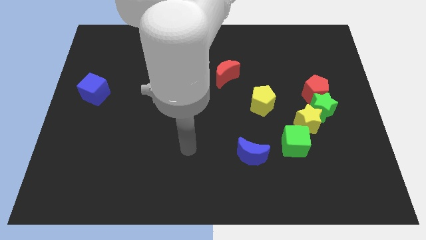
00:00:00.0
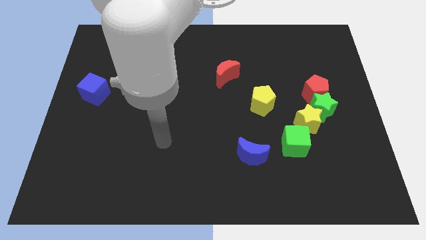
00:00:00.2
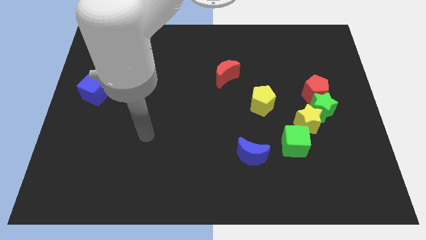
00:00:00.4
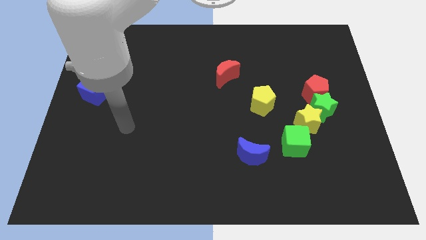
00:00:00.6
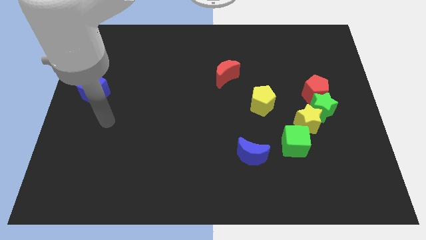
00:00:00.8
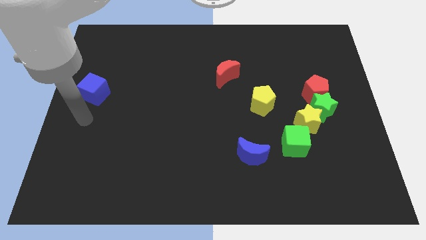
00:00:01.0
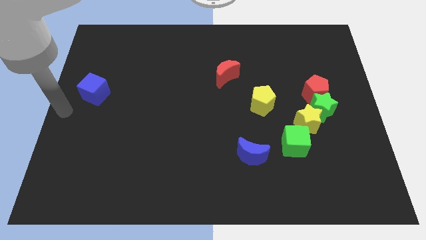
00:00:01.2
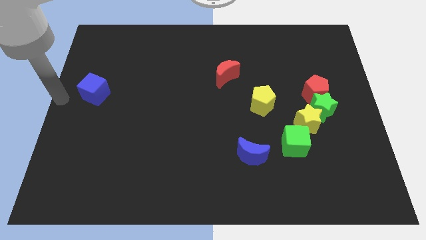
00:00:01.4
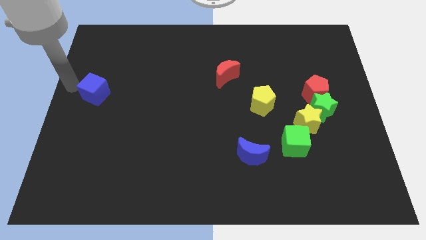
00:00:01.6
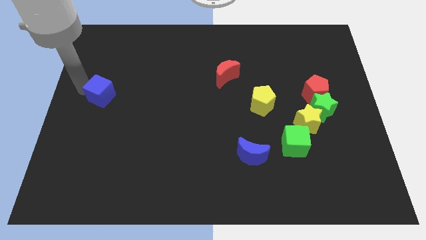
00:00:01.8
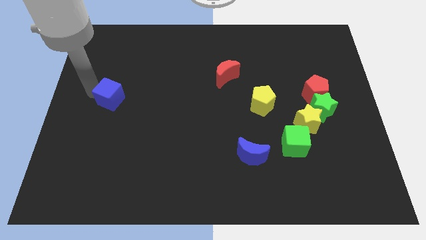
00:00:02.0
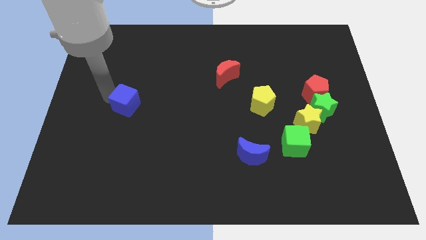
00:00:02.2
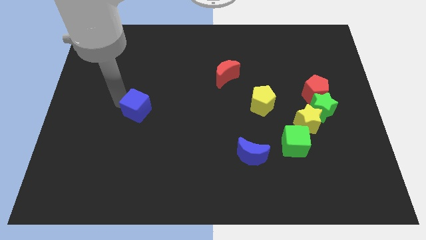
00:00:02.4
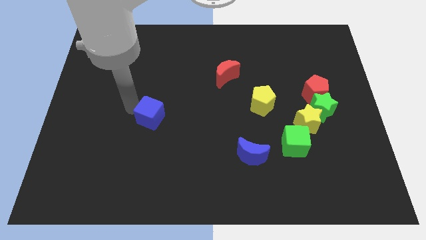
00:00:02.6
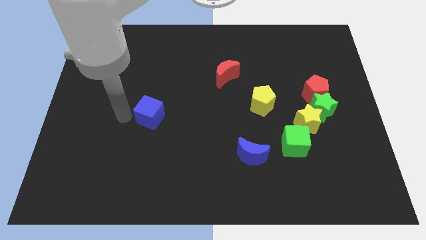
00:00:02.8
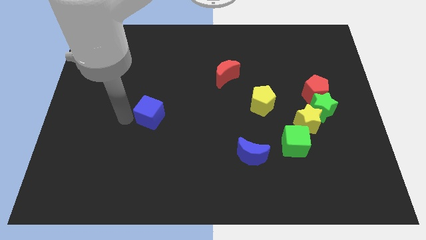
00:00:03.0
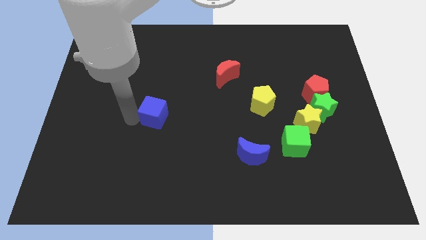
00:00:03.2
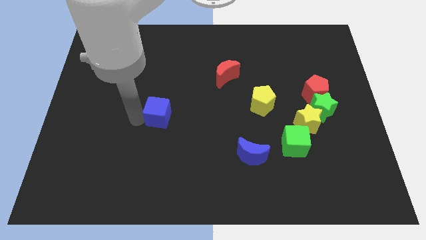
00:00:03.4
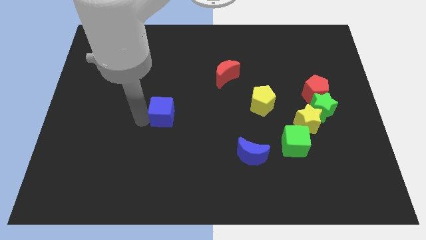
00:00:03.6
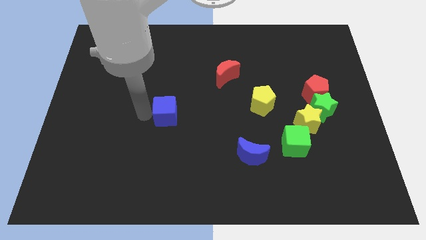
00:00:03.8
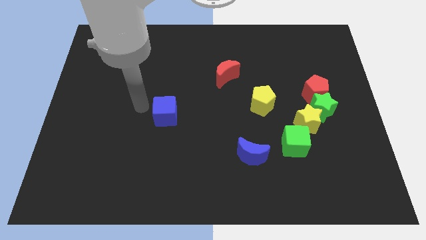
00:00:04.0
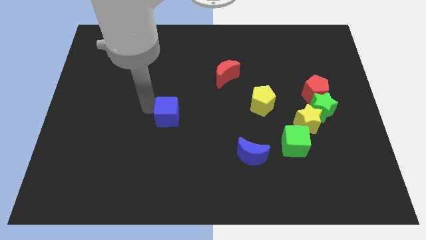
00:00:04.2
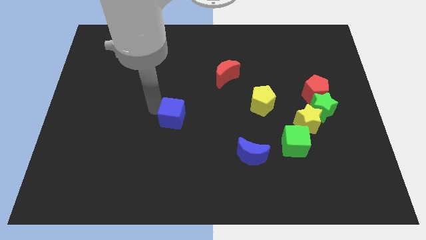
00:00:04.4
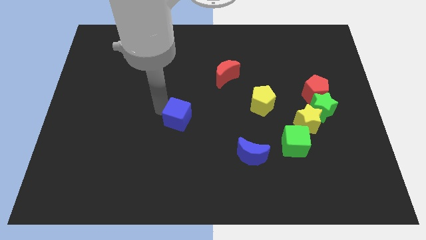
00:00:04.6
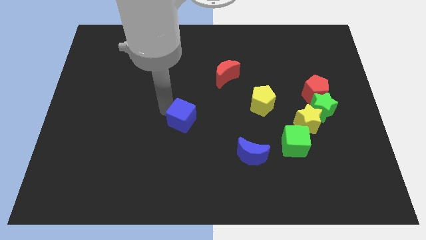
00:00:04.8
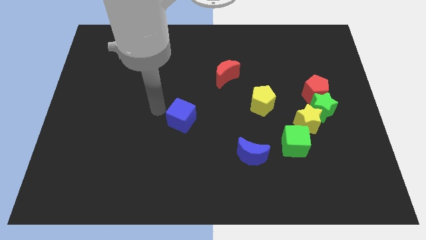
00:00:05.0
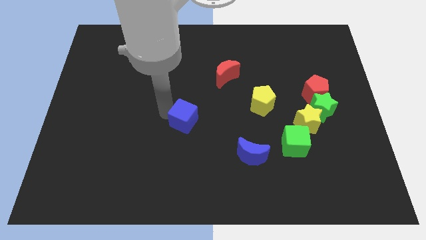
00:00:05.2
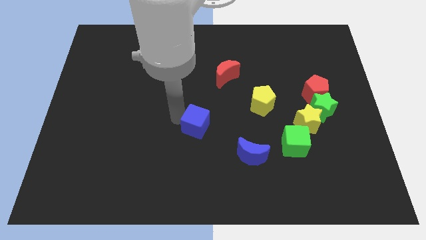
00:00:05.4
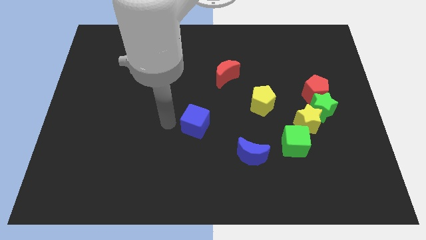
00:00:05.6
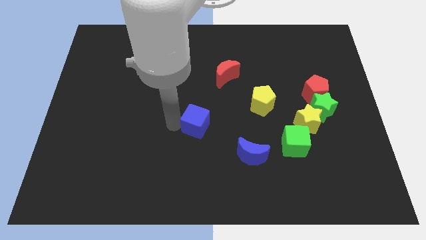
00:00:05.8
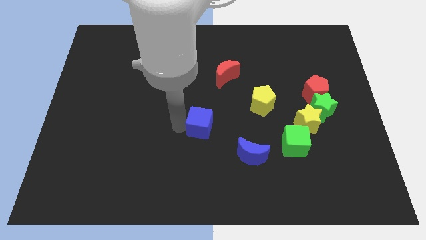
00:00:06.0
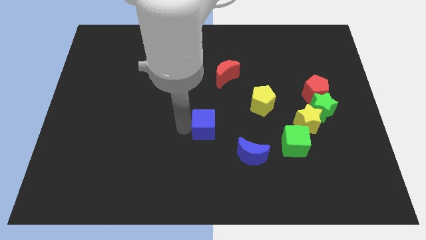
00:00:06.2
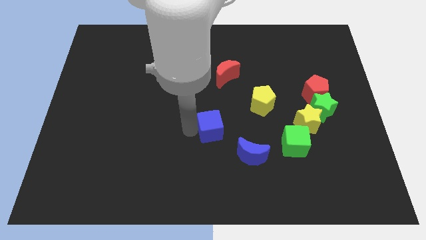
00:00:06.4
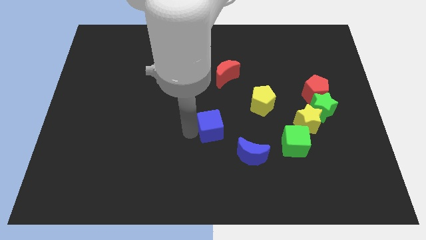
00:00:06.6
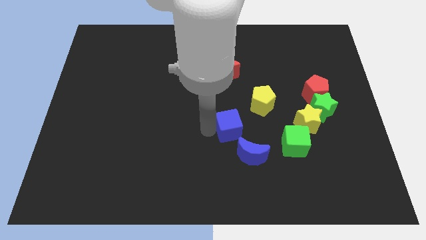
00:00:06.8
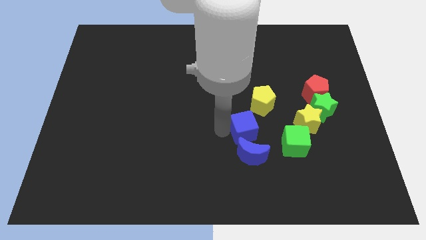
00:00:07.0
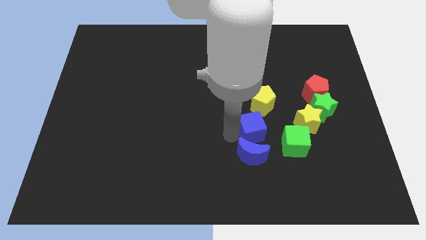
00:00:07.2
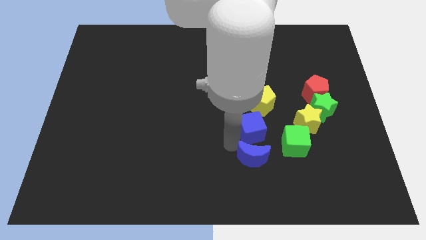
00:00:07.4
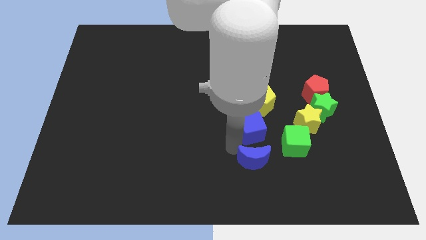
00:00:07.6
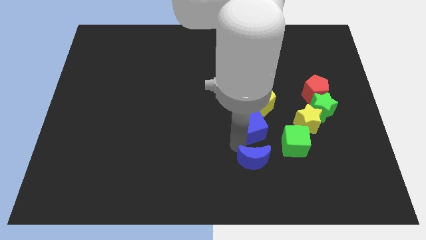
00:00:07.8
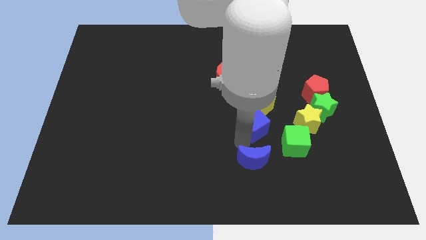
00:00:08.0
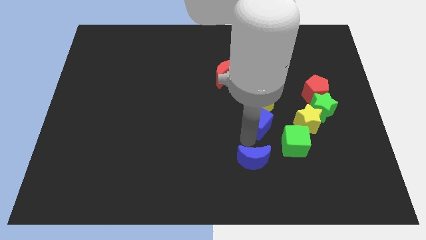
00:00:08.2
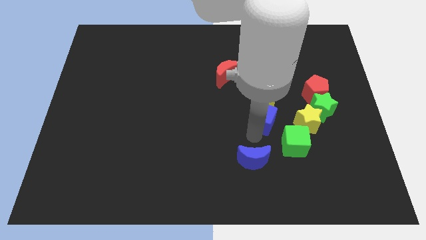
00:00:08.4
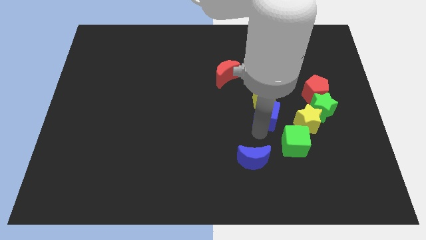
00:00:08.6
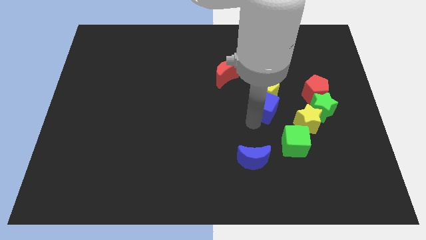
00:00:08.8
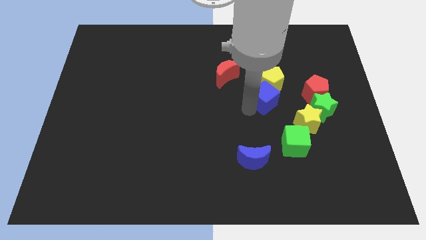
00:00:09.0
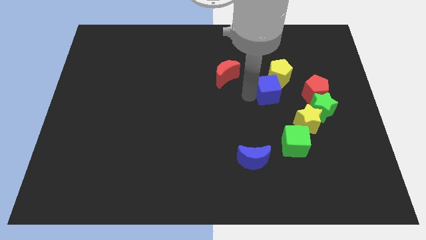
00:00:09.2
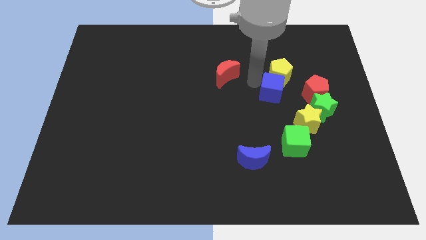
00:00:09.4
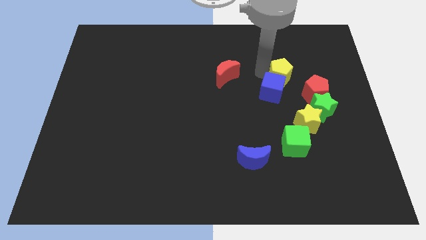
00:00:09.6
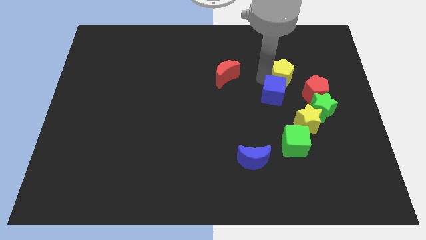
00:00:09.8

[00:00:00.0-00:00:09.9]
slide the blue cube to the top of the green cube

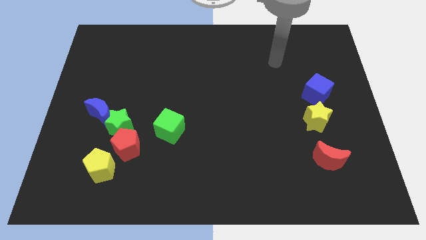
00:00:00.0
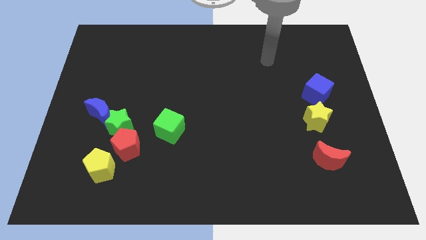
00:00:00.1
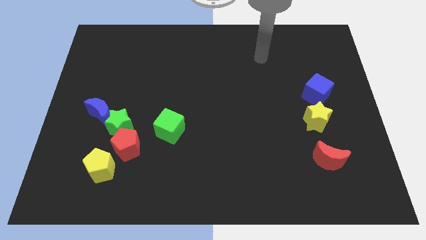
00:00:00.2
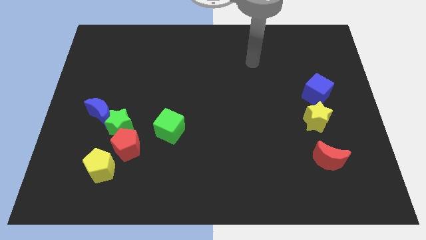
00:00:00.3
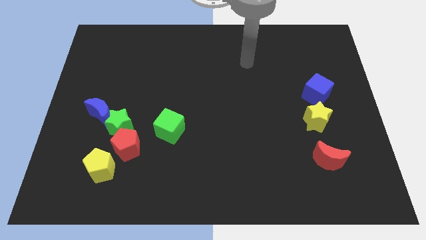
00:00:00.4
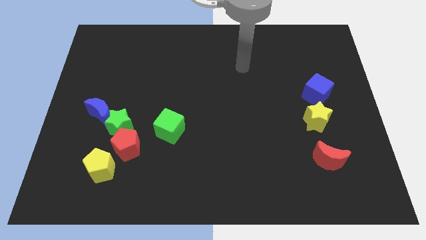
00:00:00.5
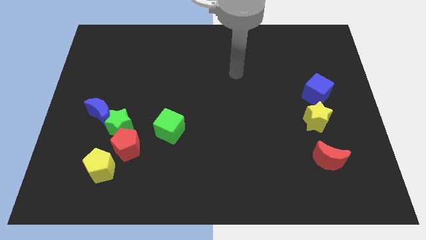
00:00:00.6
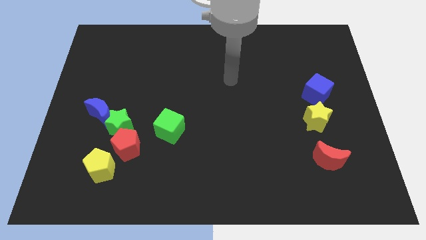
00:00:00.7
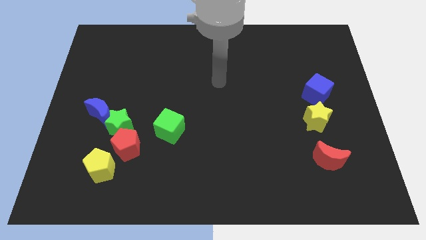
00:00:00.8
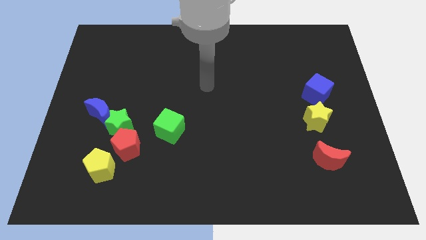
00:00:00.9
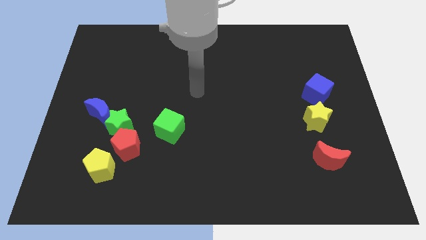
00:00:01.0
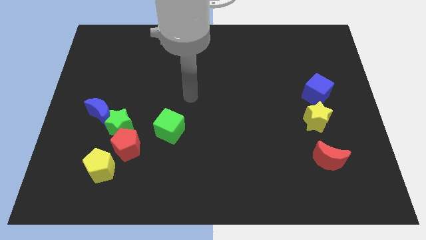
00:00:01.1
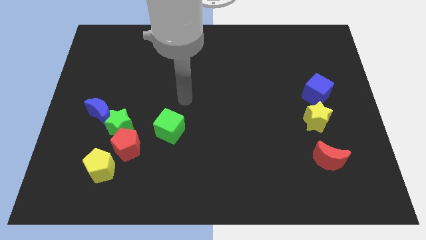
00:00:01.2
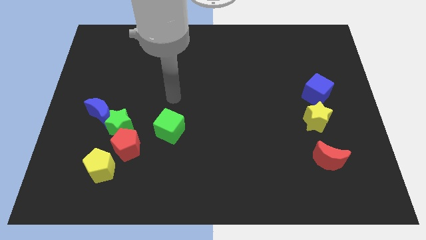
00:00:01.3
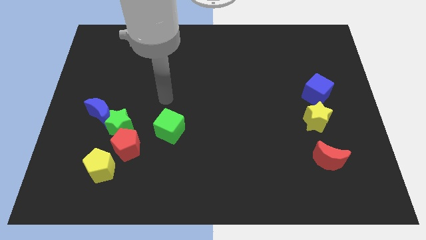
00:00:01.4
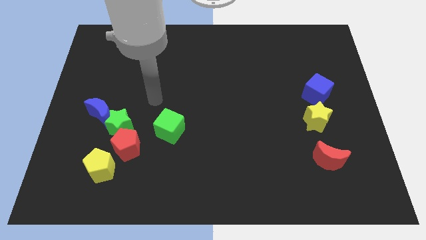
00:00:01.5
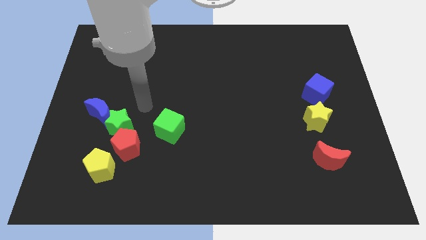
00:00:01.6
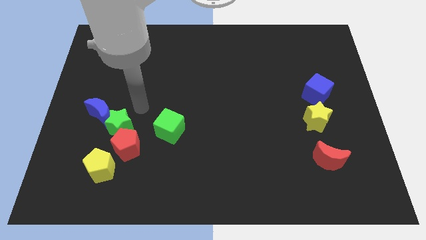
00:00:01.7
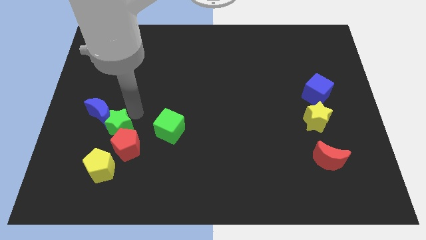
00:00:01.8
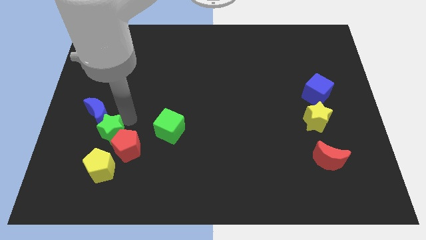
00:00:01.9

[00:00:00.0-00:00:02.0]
put the green star to the bottom of the blue moon

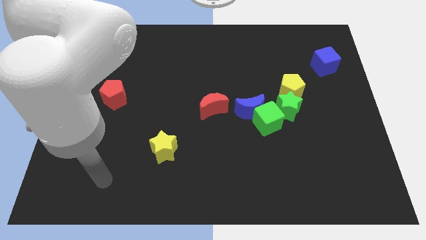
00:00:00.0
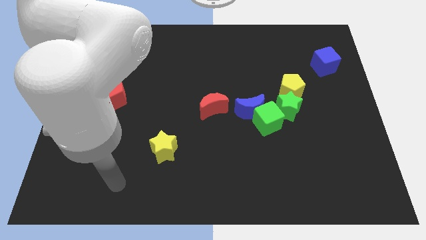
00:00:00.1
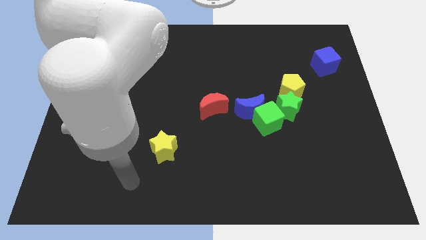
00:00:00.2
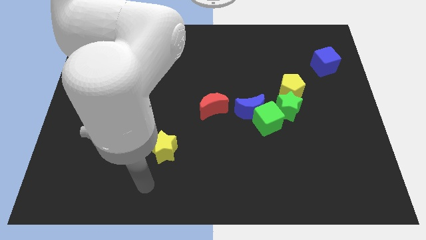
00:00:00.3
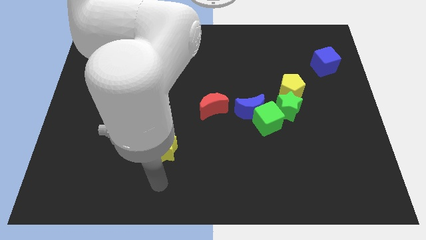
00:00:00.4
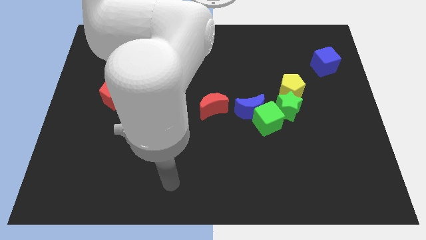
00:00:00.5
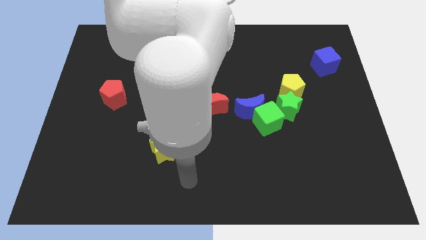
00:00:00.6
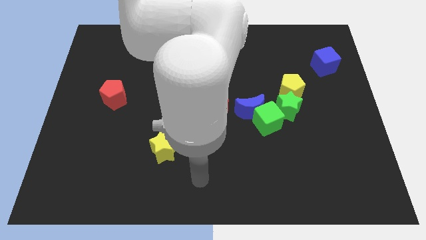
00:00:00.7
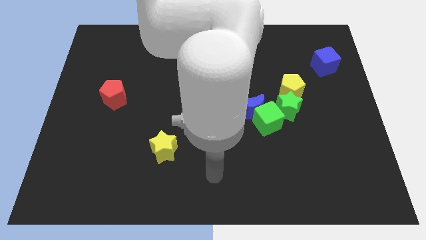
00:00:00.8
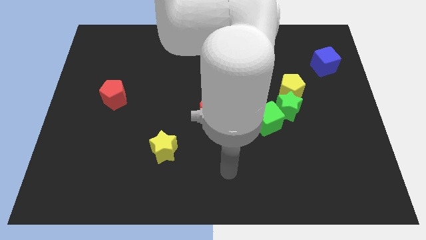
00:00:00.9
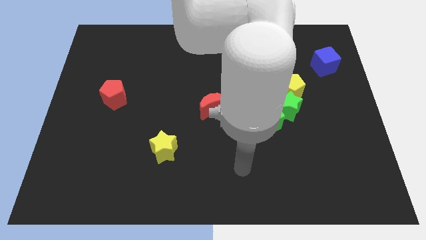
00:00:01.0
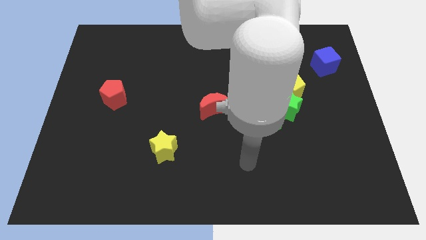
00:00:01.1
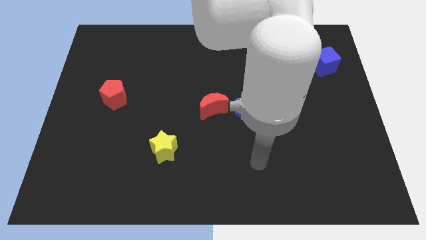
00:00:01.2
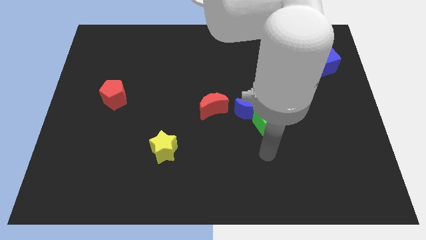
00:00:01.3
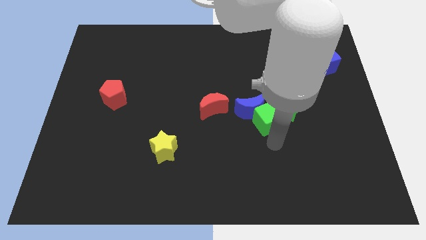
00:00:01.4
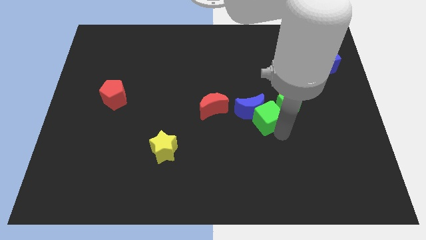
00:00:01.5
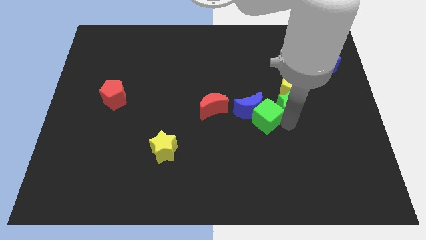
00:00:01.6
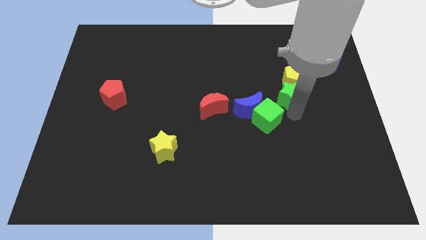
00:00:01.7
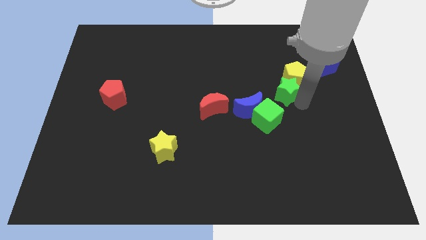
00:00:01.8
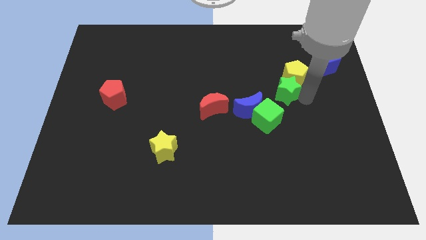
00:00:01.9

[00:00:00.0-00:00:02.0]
move the yellow pentagon to the left side of the blue cube
